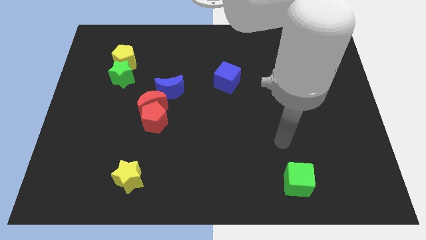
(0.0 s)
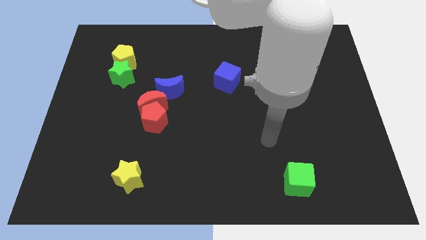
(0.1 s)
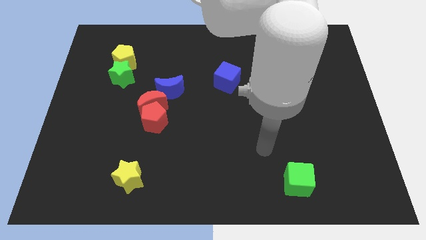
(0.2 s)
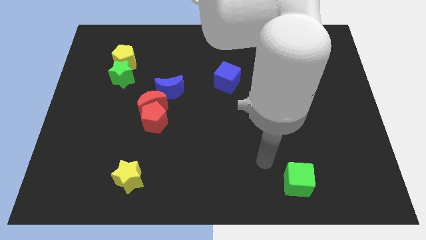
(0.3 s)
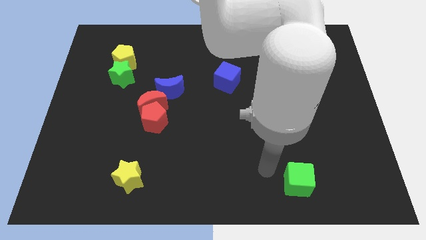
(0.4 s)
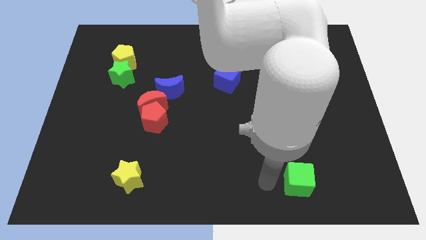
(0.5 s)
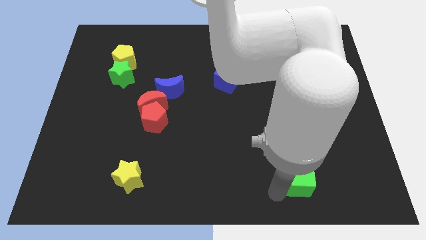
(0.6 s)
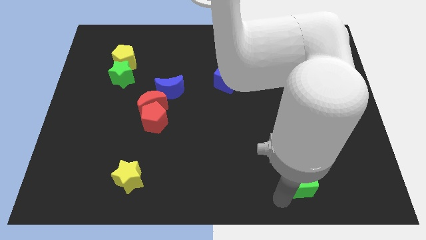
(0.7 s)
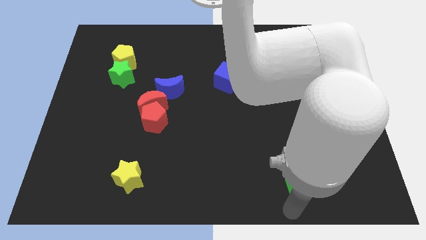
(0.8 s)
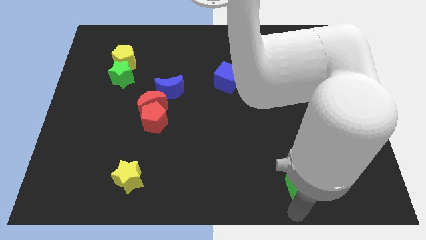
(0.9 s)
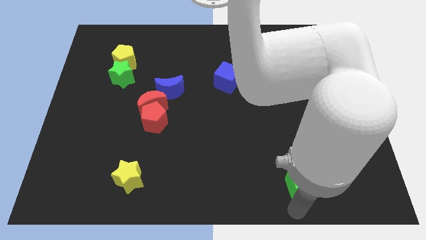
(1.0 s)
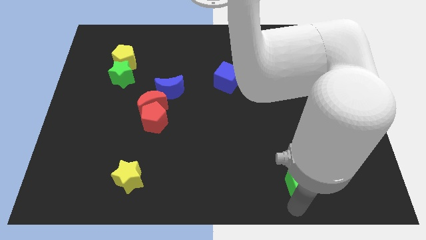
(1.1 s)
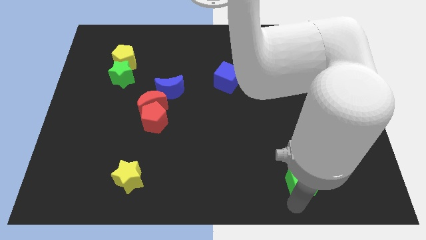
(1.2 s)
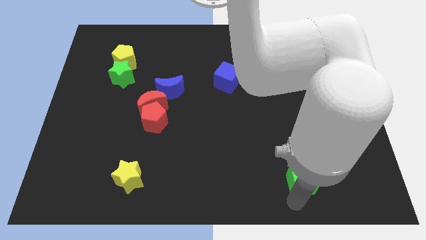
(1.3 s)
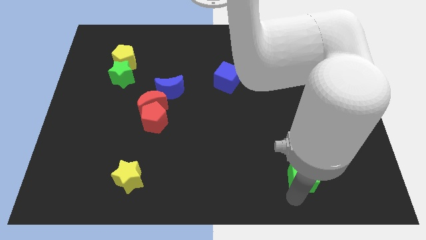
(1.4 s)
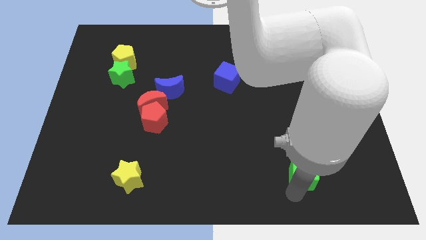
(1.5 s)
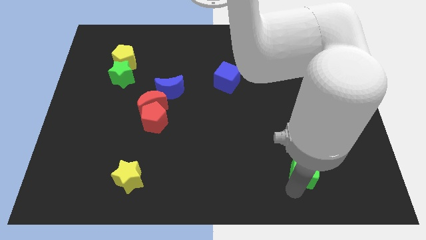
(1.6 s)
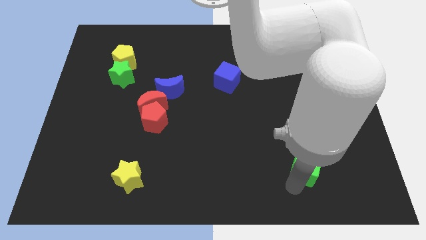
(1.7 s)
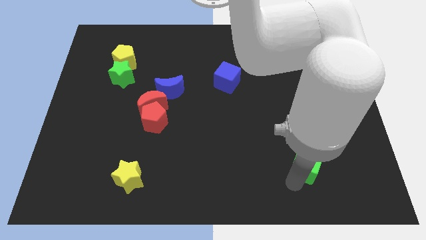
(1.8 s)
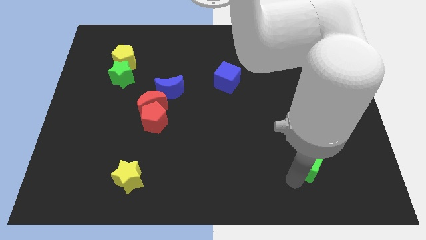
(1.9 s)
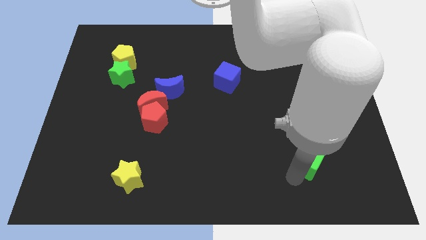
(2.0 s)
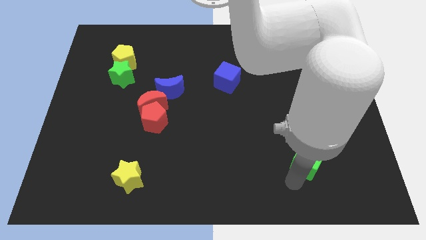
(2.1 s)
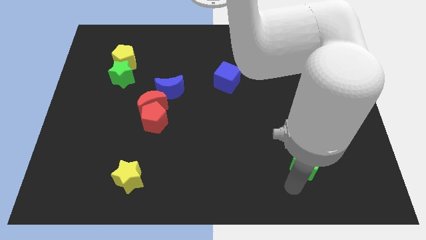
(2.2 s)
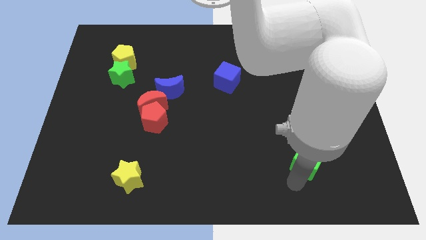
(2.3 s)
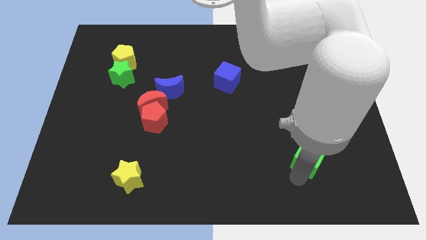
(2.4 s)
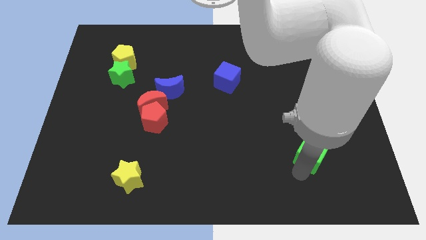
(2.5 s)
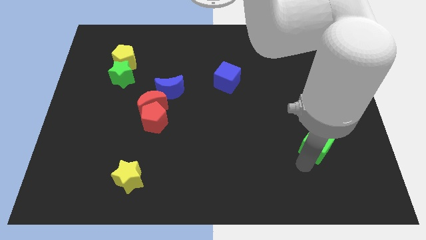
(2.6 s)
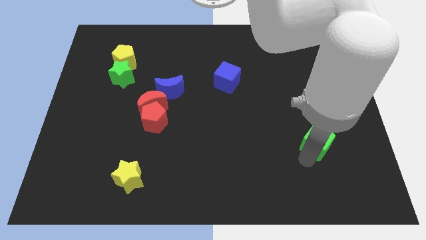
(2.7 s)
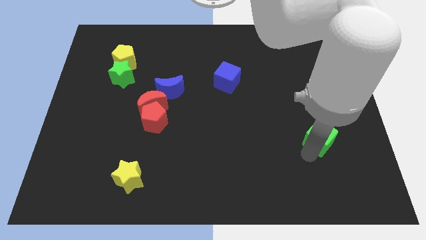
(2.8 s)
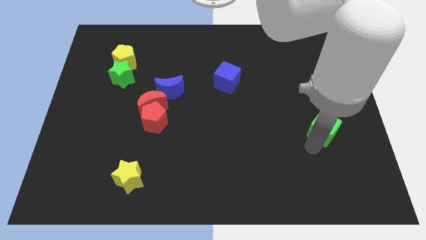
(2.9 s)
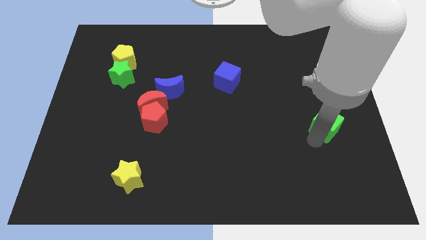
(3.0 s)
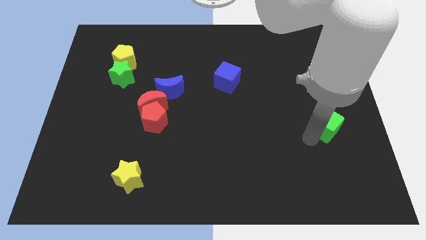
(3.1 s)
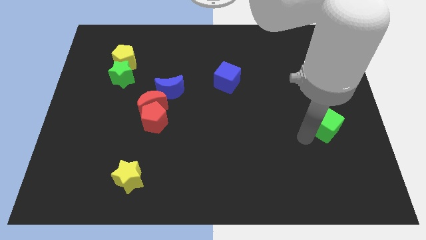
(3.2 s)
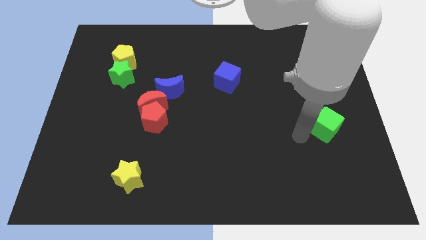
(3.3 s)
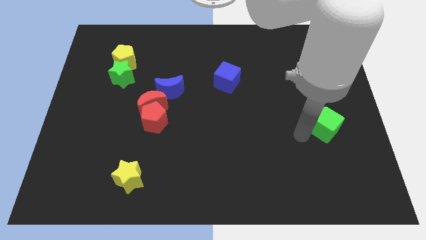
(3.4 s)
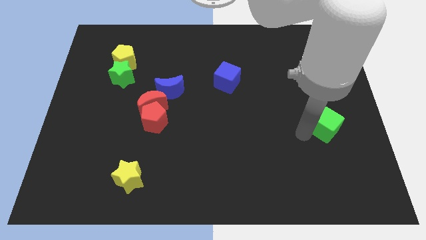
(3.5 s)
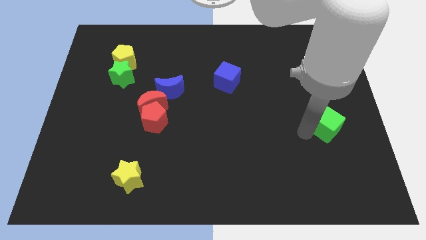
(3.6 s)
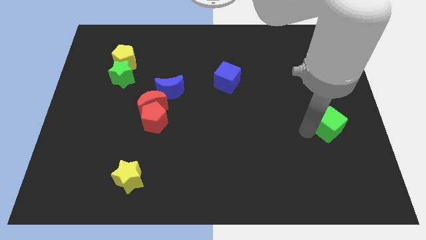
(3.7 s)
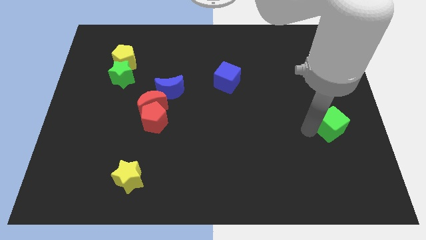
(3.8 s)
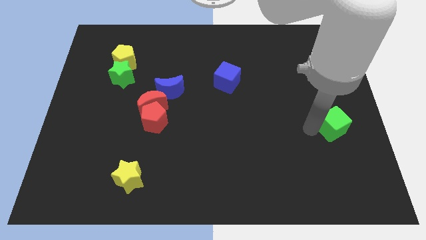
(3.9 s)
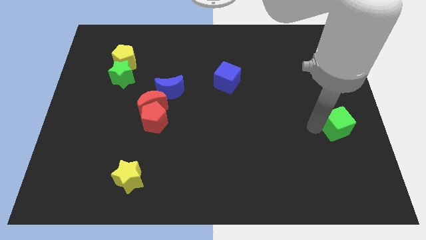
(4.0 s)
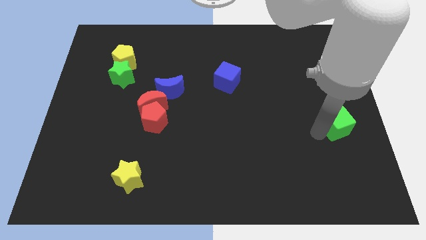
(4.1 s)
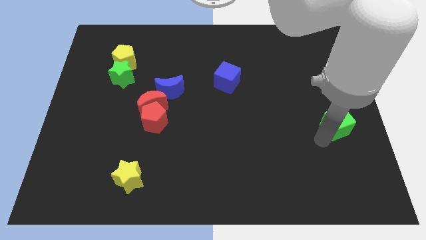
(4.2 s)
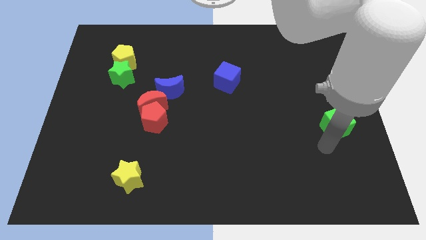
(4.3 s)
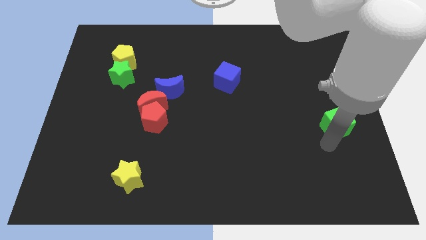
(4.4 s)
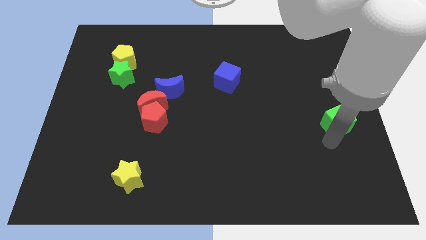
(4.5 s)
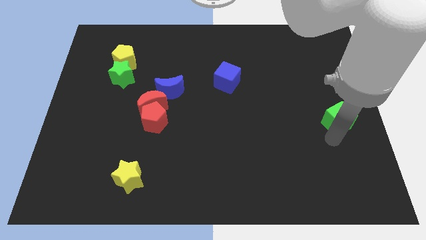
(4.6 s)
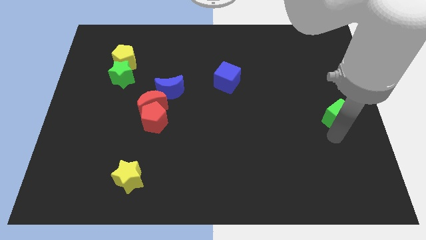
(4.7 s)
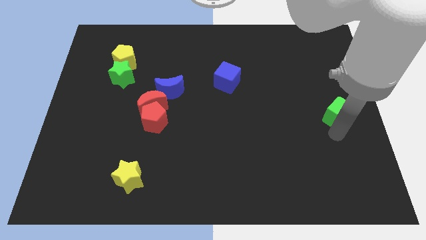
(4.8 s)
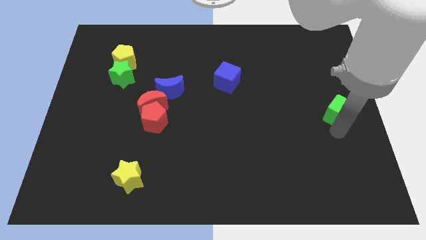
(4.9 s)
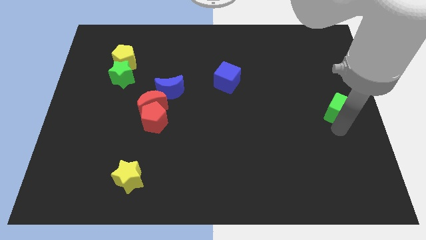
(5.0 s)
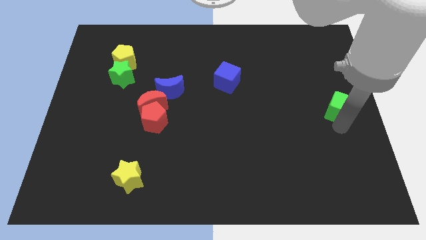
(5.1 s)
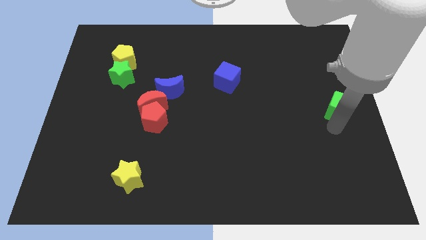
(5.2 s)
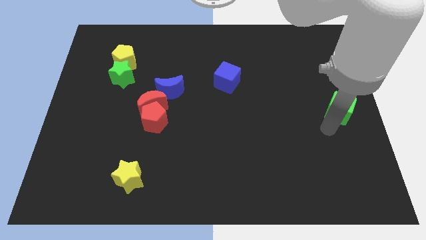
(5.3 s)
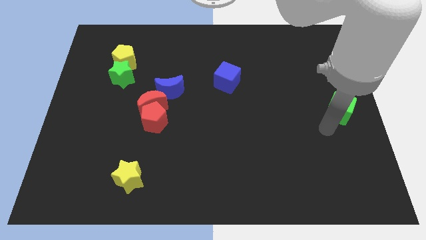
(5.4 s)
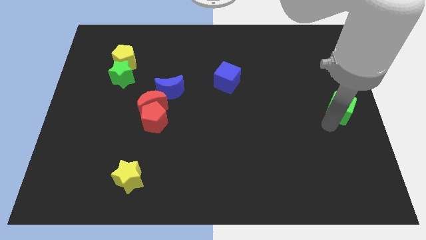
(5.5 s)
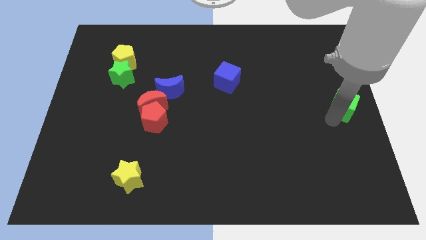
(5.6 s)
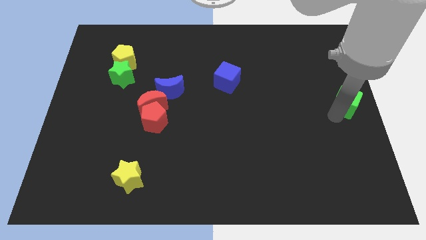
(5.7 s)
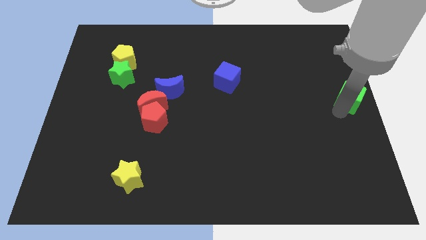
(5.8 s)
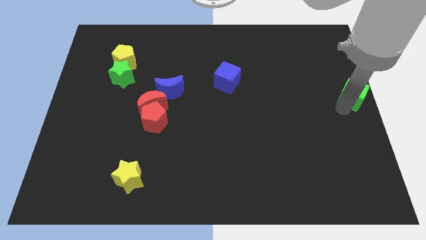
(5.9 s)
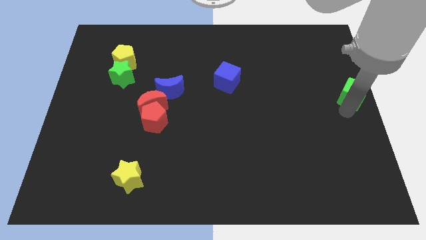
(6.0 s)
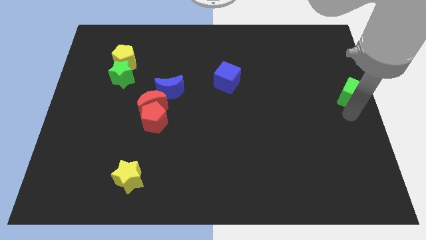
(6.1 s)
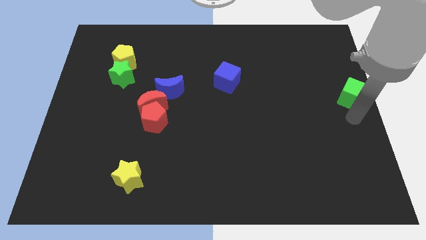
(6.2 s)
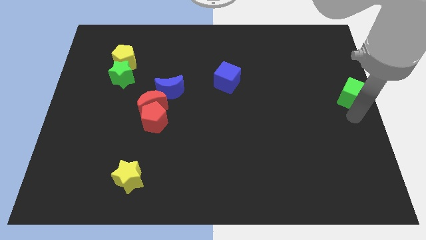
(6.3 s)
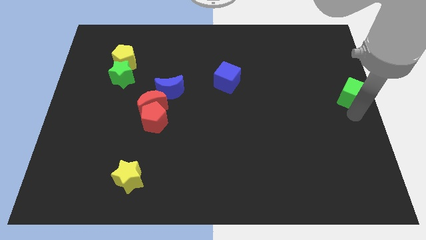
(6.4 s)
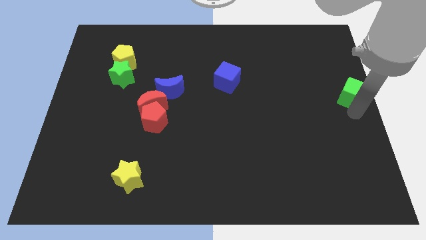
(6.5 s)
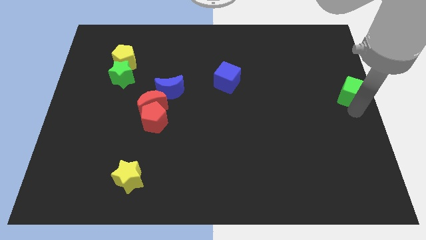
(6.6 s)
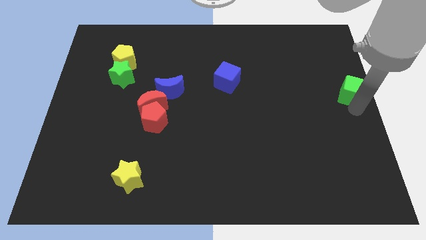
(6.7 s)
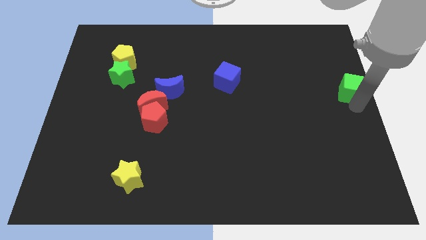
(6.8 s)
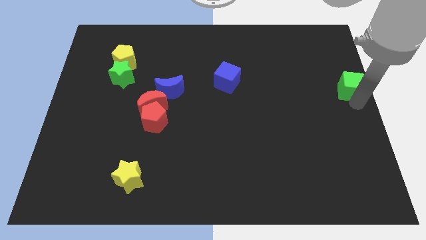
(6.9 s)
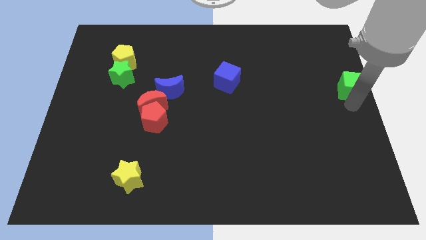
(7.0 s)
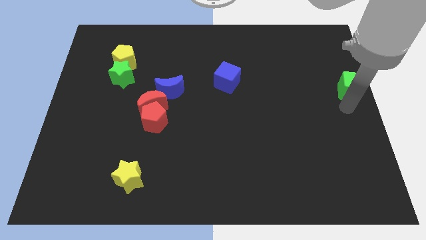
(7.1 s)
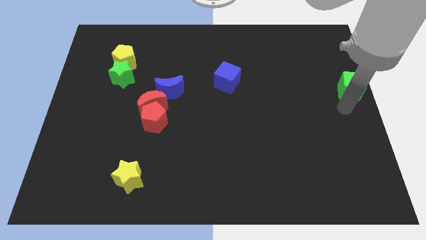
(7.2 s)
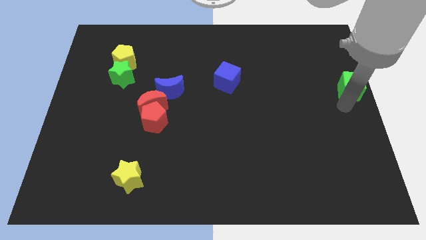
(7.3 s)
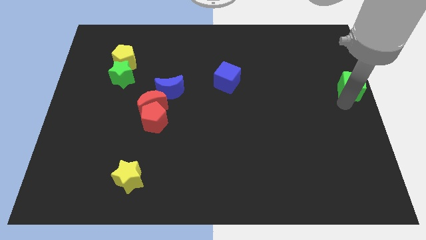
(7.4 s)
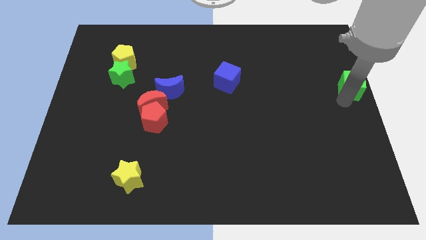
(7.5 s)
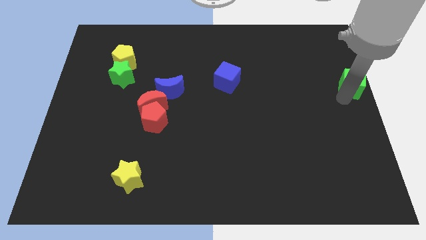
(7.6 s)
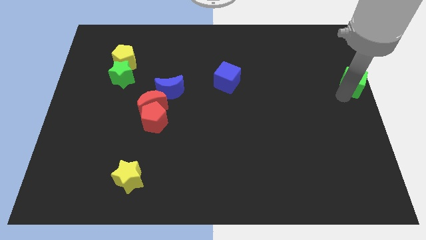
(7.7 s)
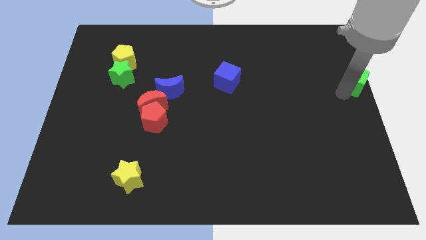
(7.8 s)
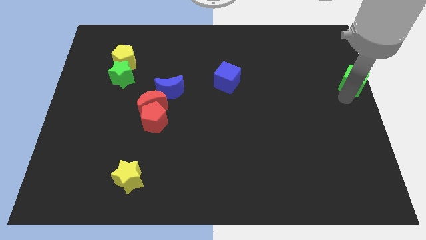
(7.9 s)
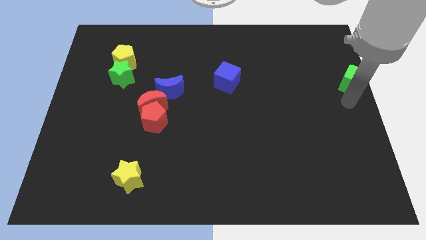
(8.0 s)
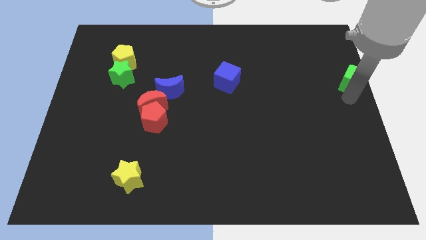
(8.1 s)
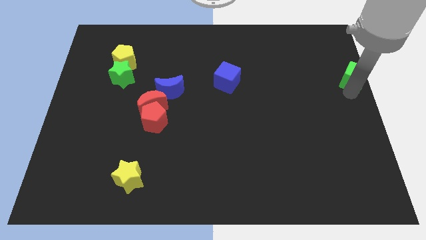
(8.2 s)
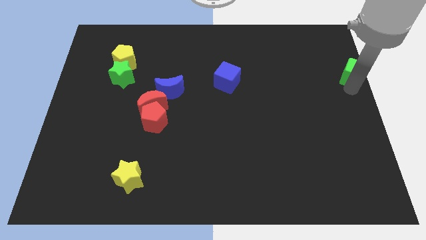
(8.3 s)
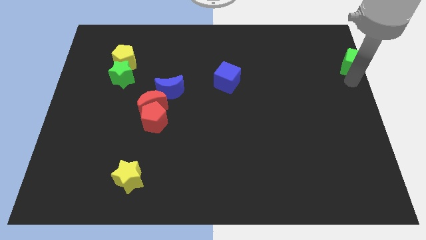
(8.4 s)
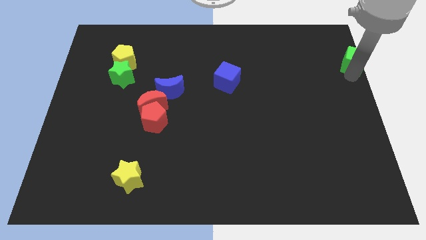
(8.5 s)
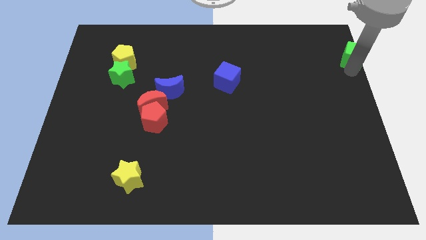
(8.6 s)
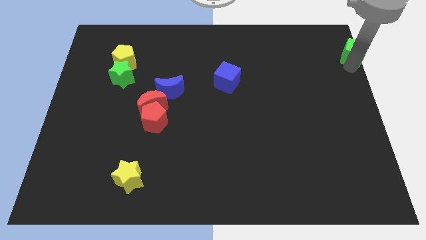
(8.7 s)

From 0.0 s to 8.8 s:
put the green cube to the top right
